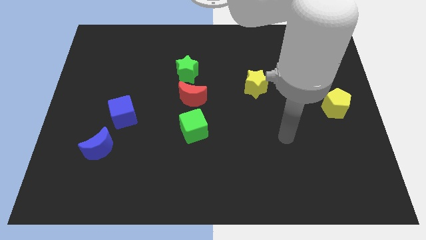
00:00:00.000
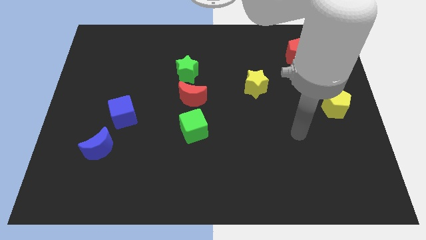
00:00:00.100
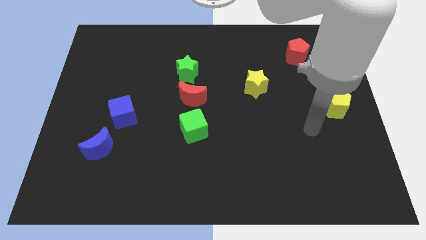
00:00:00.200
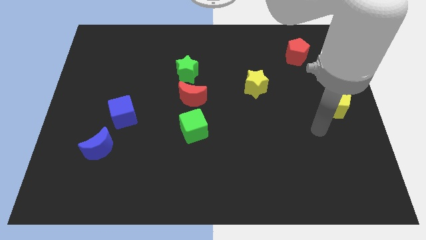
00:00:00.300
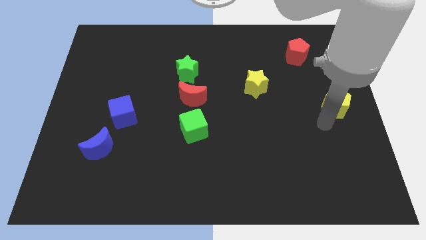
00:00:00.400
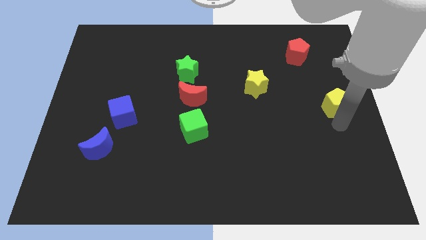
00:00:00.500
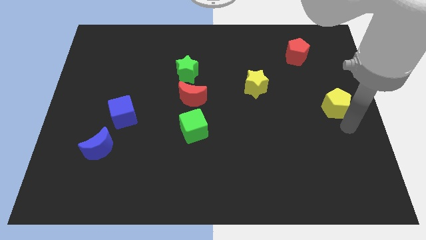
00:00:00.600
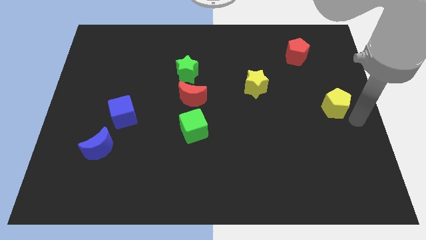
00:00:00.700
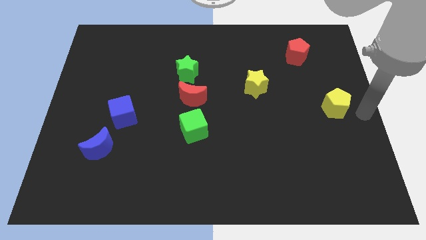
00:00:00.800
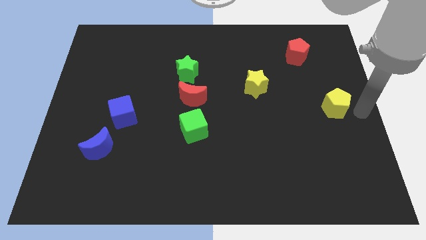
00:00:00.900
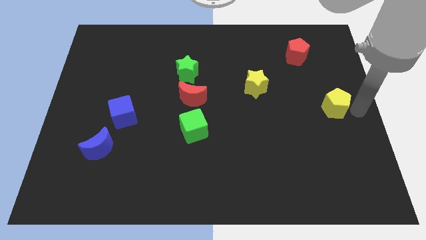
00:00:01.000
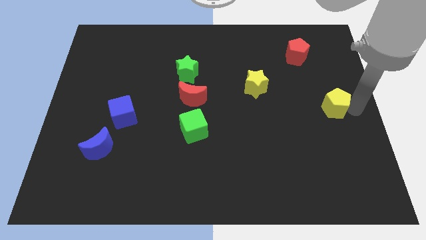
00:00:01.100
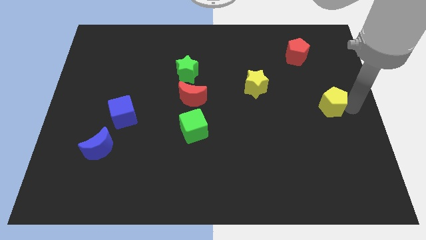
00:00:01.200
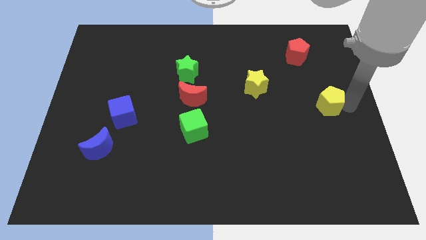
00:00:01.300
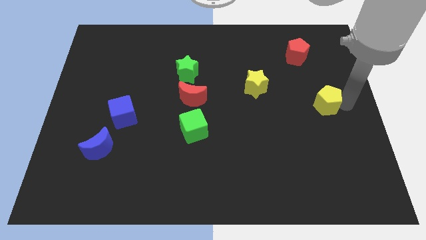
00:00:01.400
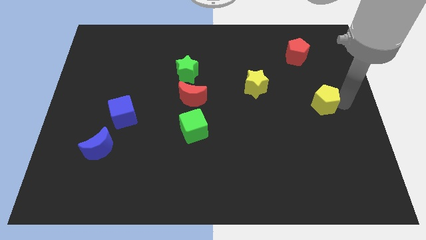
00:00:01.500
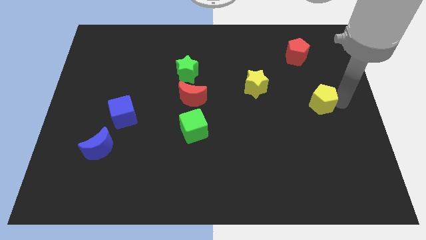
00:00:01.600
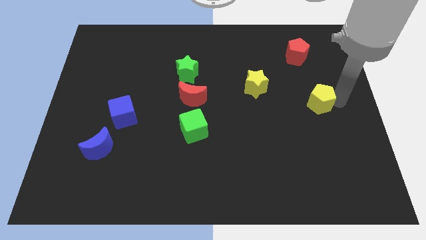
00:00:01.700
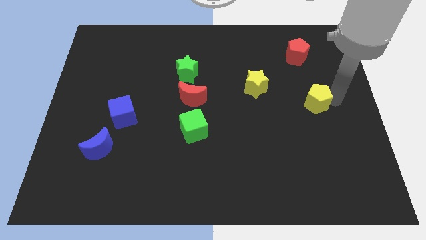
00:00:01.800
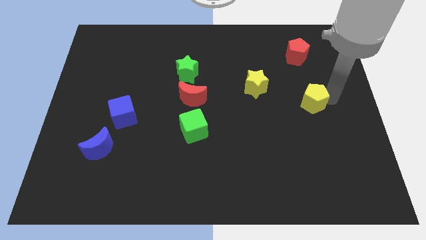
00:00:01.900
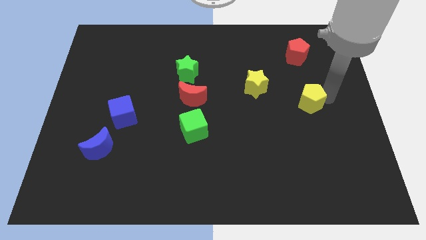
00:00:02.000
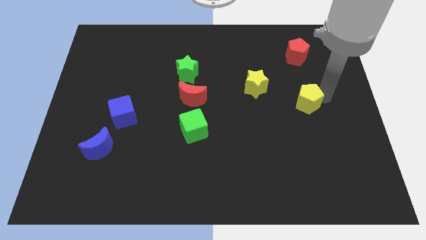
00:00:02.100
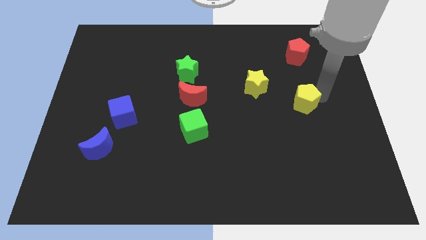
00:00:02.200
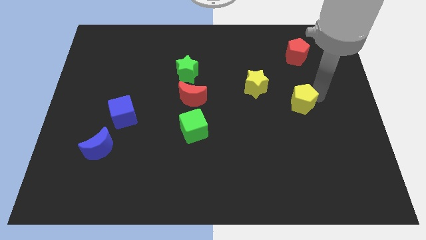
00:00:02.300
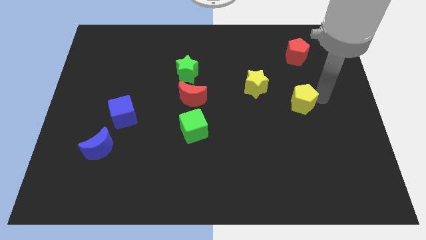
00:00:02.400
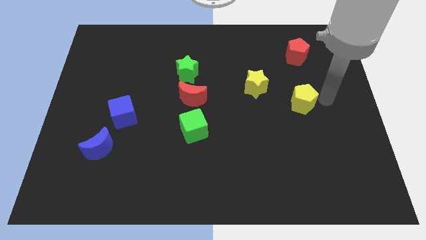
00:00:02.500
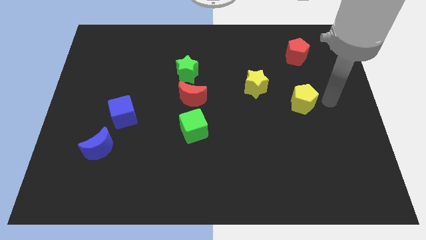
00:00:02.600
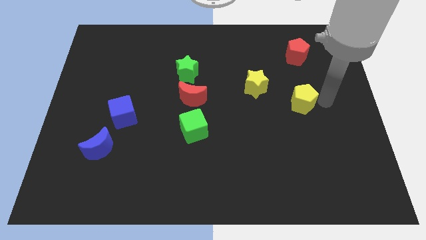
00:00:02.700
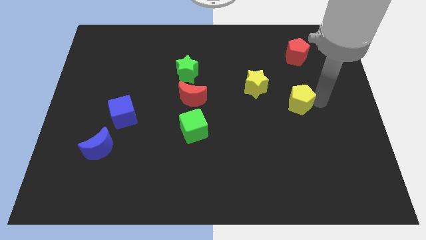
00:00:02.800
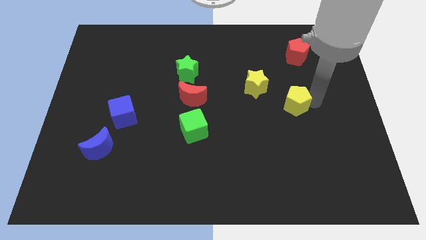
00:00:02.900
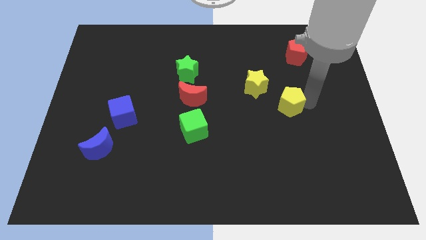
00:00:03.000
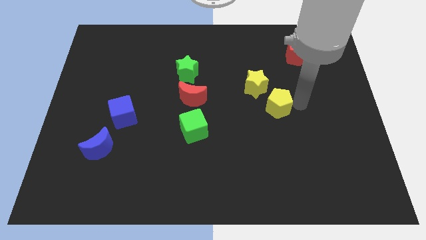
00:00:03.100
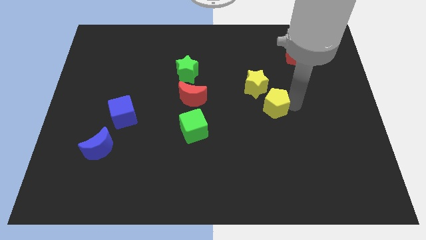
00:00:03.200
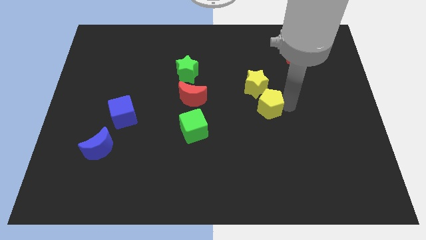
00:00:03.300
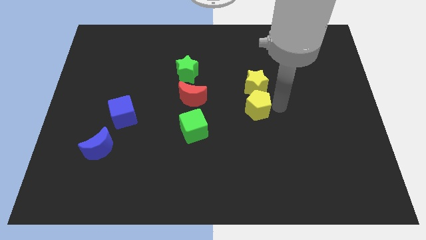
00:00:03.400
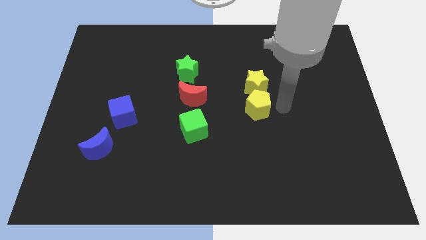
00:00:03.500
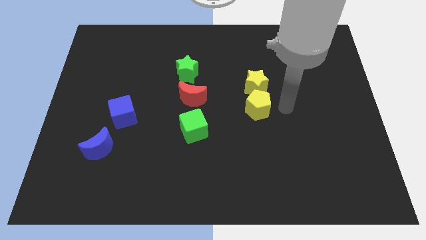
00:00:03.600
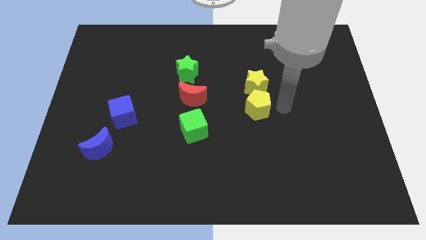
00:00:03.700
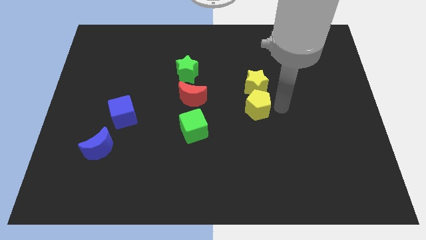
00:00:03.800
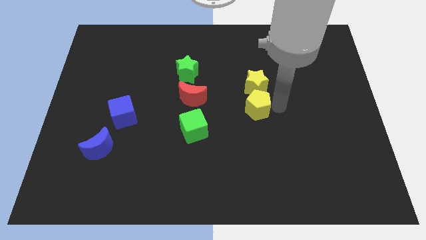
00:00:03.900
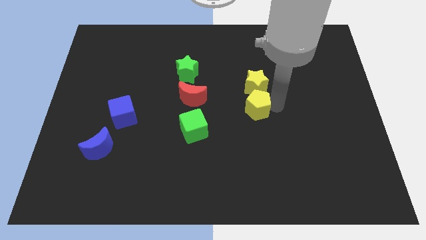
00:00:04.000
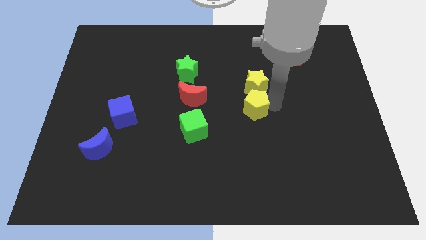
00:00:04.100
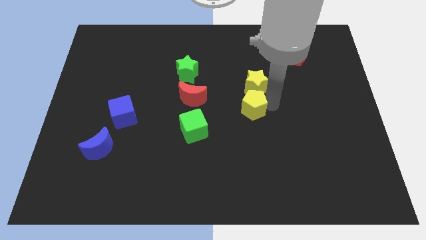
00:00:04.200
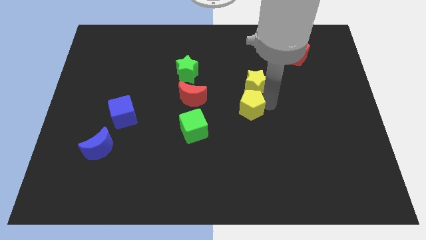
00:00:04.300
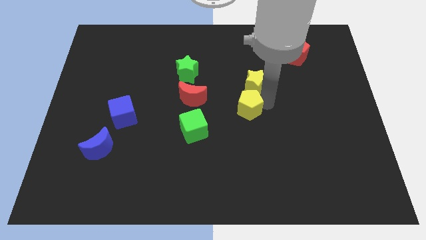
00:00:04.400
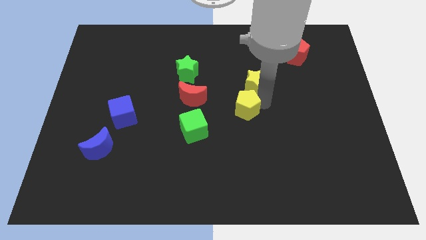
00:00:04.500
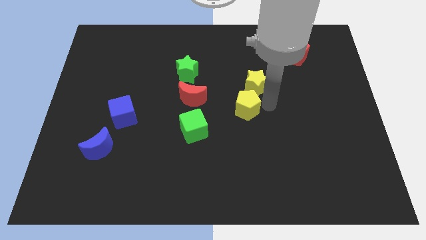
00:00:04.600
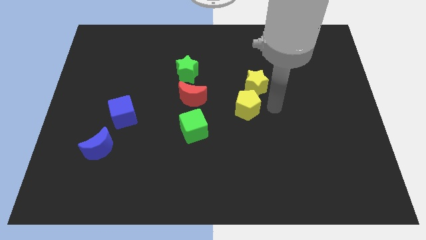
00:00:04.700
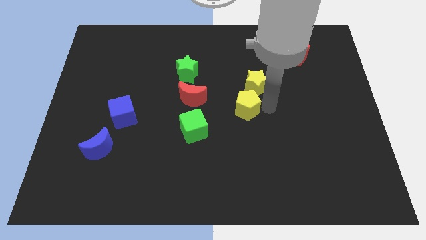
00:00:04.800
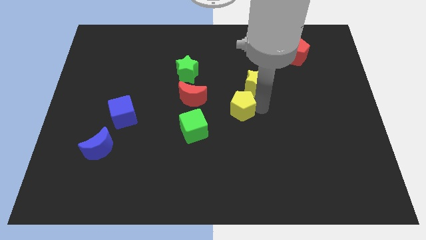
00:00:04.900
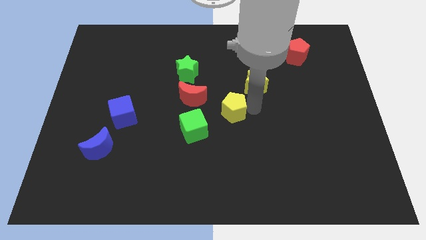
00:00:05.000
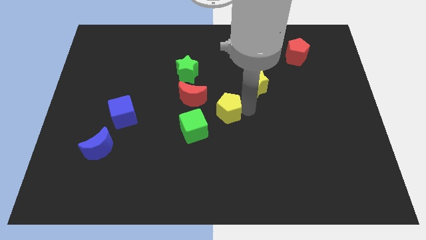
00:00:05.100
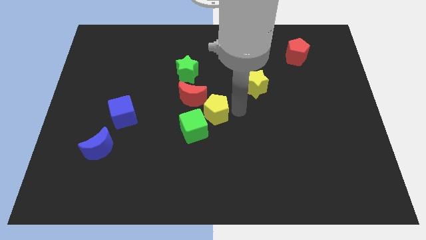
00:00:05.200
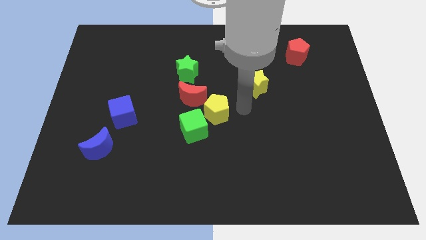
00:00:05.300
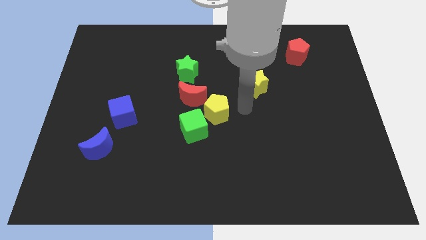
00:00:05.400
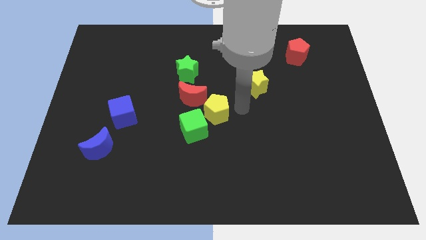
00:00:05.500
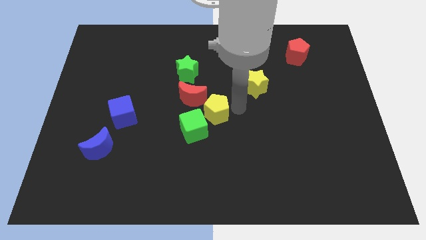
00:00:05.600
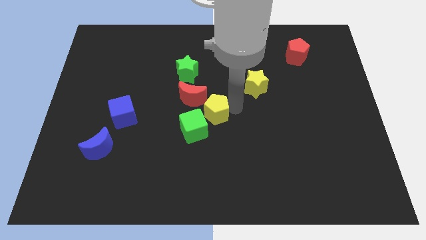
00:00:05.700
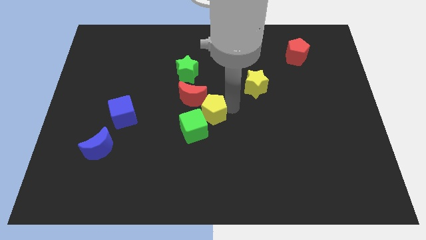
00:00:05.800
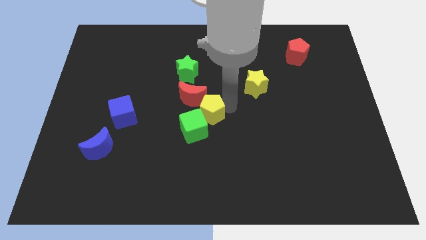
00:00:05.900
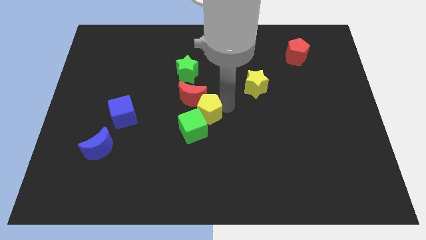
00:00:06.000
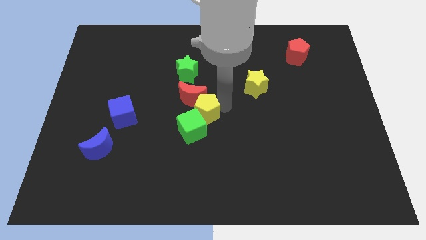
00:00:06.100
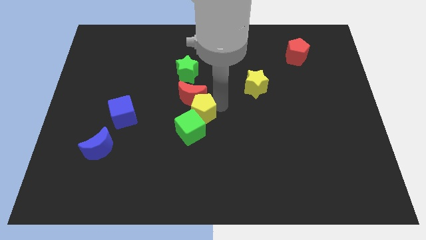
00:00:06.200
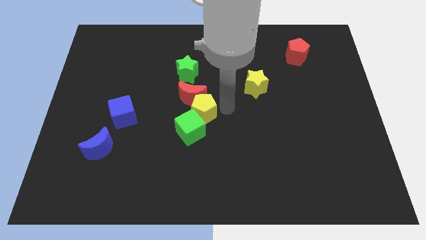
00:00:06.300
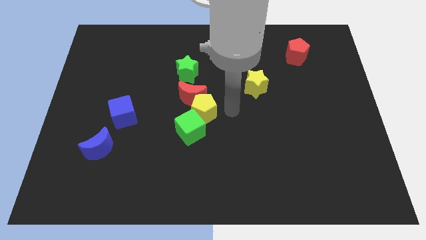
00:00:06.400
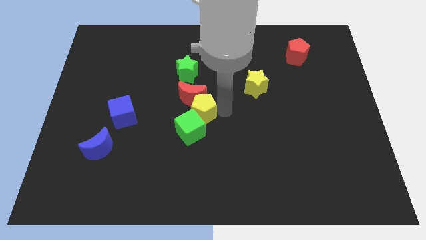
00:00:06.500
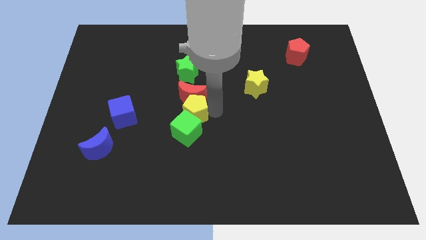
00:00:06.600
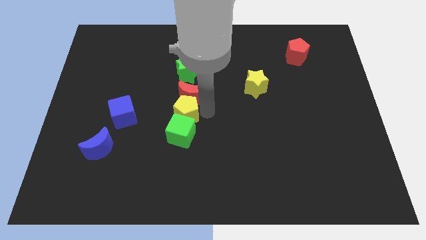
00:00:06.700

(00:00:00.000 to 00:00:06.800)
move the yellow pentagon to the top left side of the green cube
